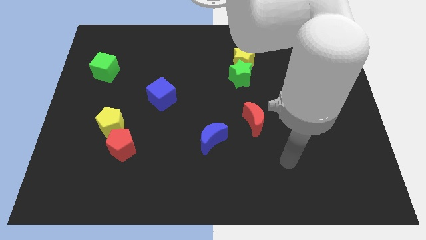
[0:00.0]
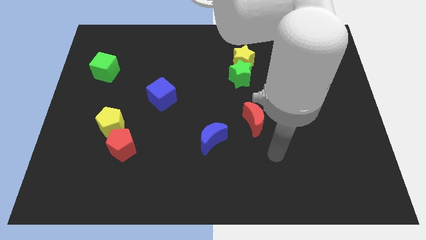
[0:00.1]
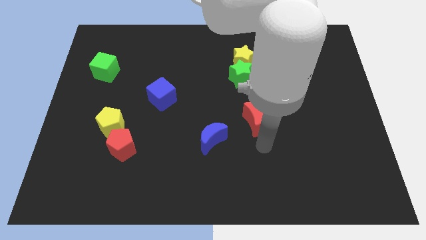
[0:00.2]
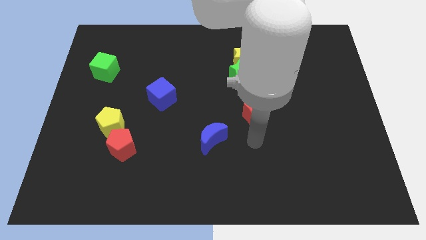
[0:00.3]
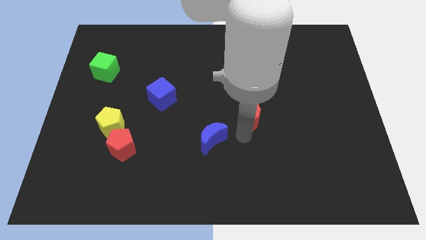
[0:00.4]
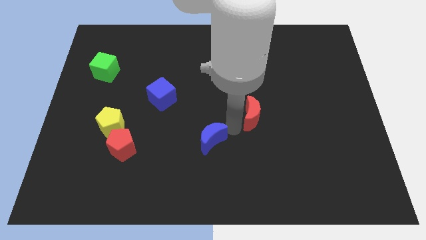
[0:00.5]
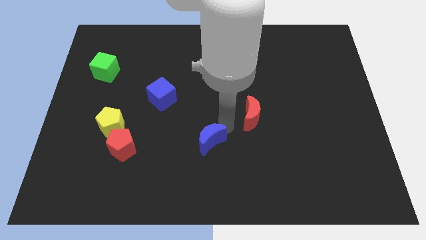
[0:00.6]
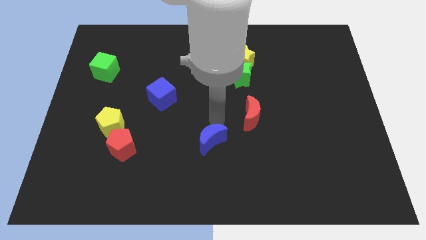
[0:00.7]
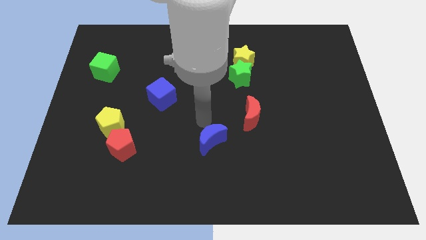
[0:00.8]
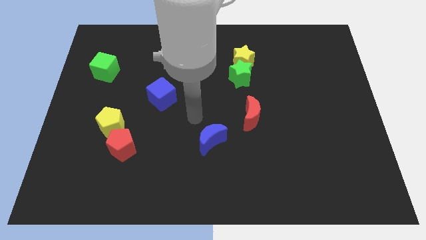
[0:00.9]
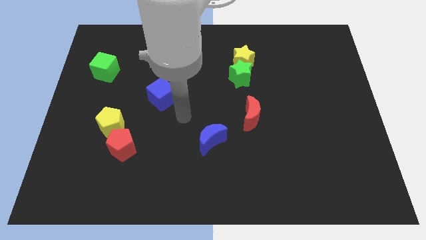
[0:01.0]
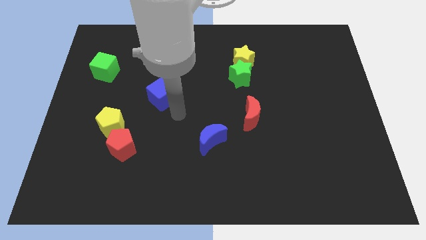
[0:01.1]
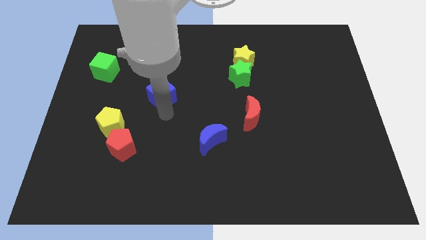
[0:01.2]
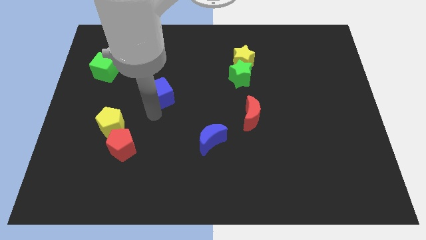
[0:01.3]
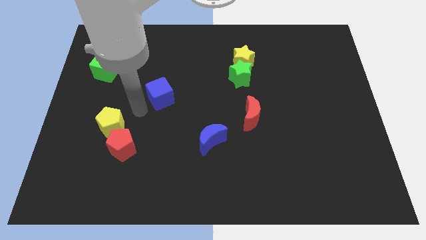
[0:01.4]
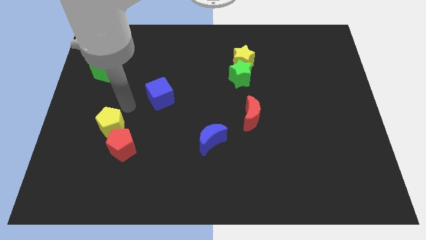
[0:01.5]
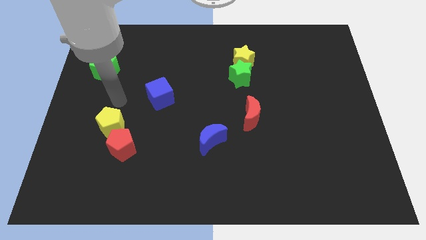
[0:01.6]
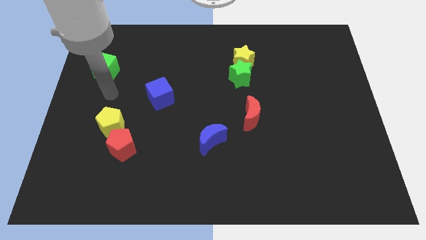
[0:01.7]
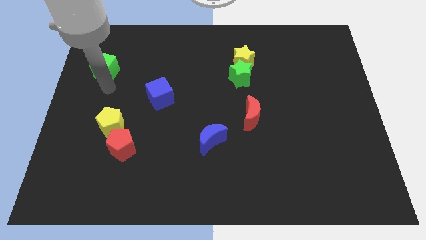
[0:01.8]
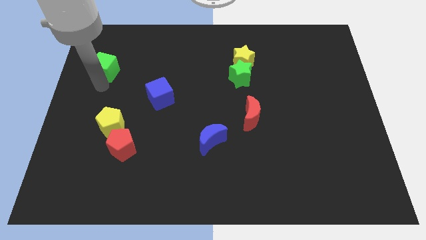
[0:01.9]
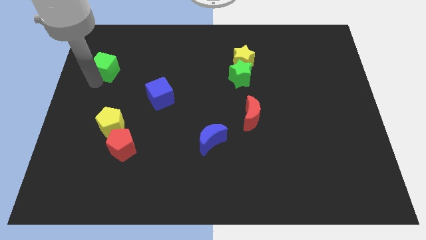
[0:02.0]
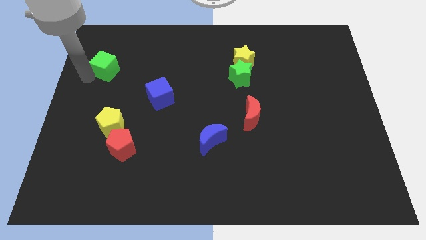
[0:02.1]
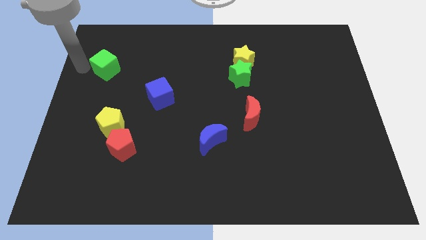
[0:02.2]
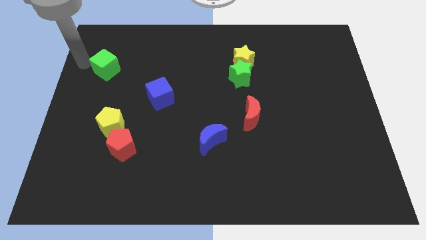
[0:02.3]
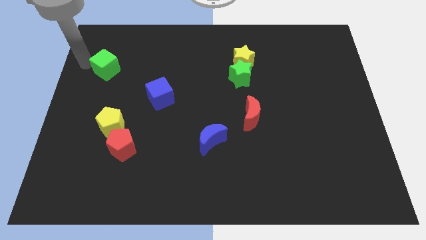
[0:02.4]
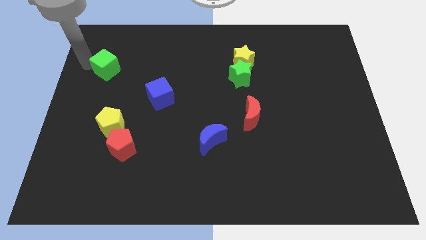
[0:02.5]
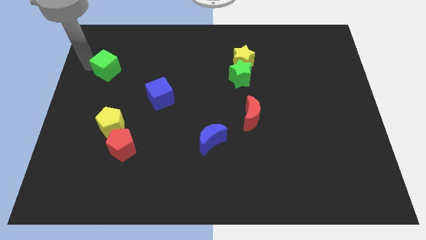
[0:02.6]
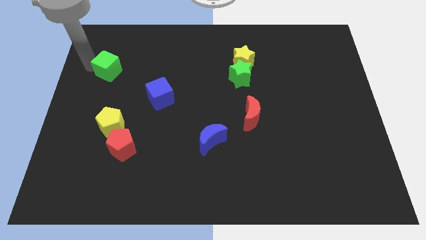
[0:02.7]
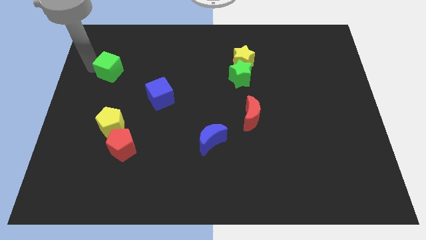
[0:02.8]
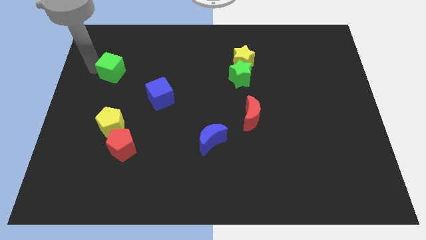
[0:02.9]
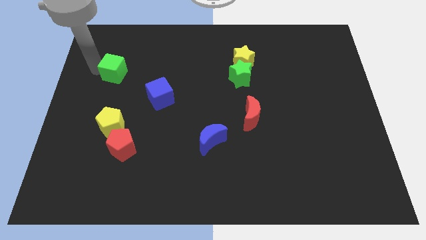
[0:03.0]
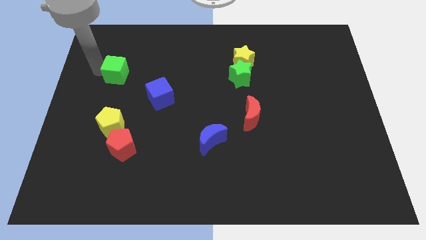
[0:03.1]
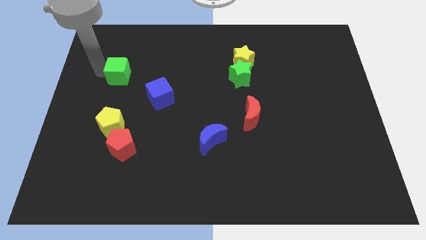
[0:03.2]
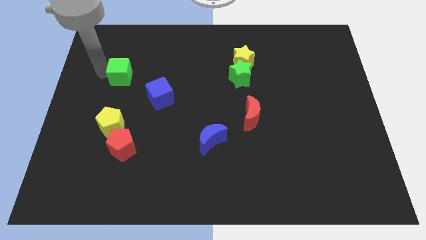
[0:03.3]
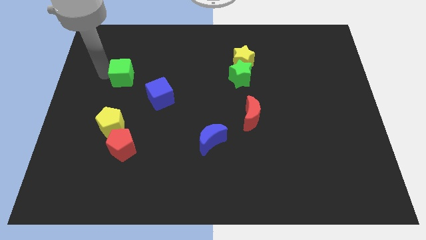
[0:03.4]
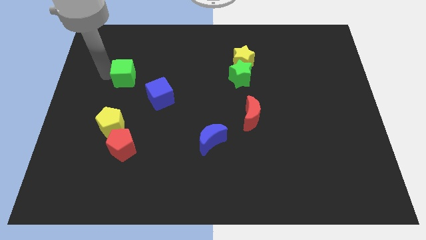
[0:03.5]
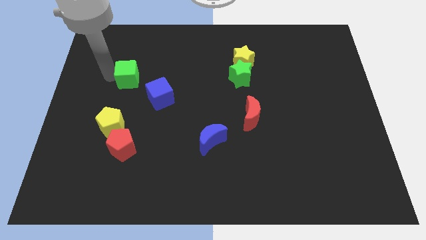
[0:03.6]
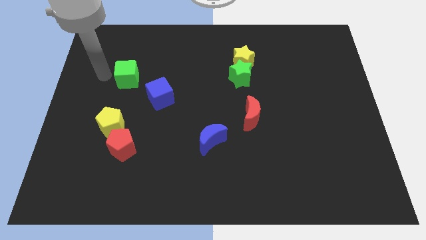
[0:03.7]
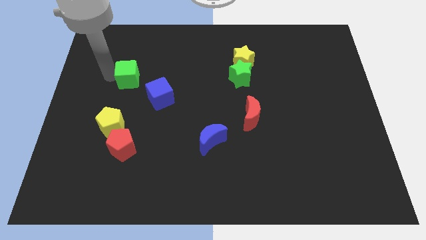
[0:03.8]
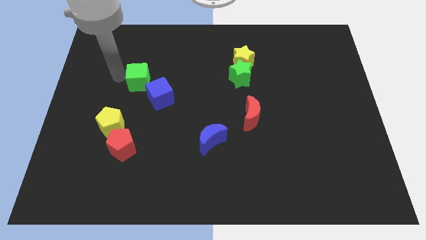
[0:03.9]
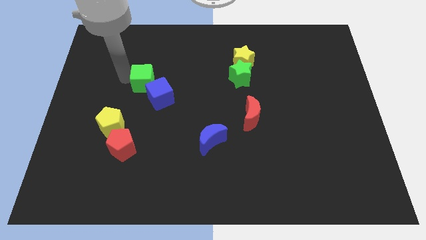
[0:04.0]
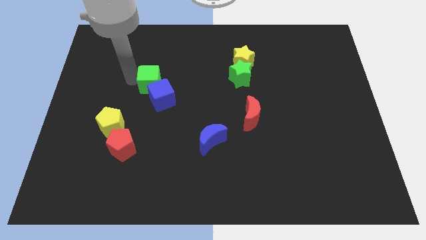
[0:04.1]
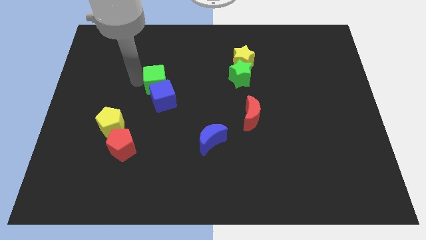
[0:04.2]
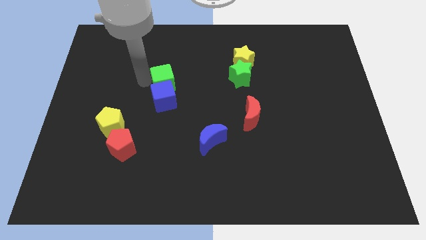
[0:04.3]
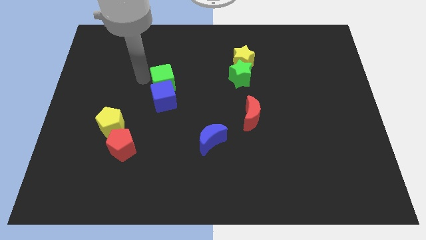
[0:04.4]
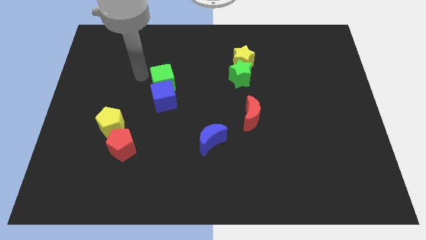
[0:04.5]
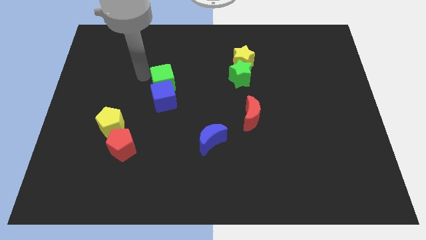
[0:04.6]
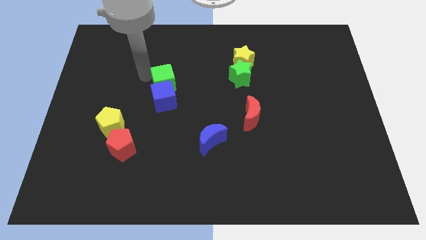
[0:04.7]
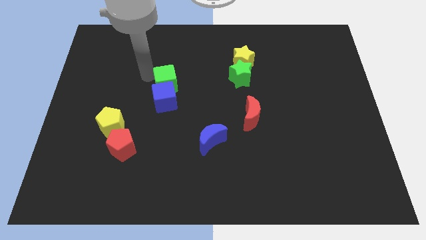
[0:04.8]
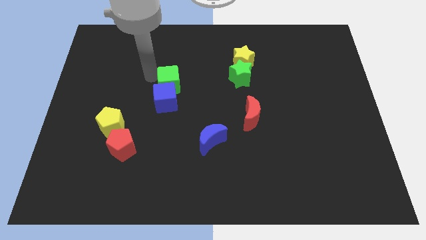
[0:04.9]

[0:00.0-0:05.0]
slide the green cube to the center

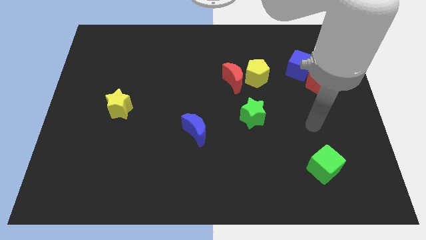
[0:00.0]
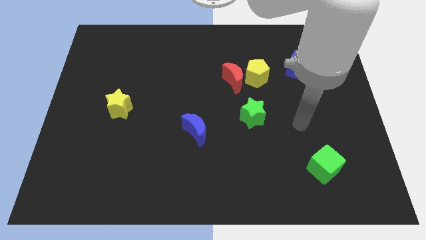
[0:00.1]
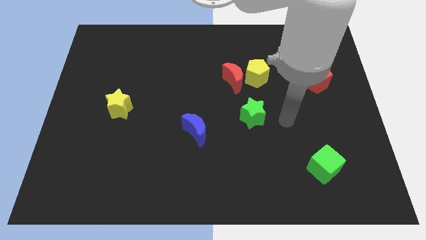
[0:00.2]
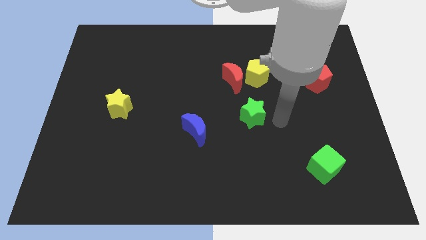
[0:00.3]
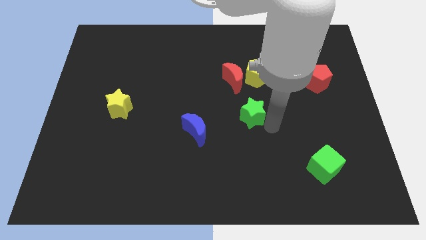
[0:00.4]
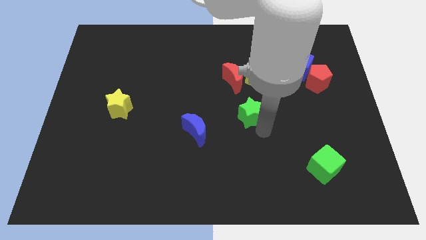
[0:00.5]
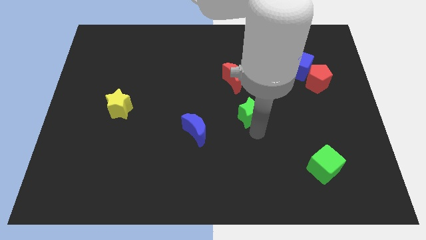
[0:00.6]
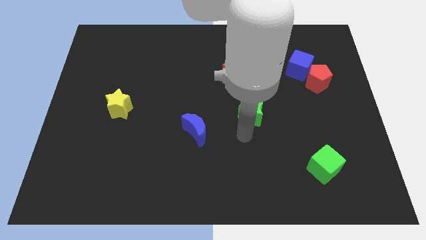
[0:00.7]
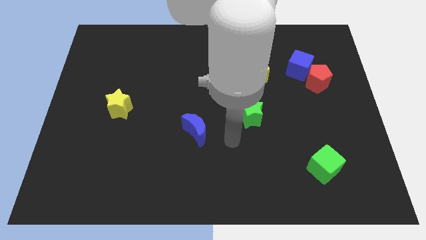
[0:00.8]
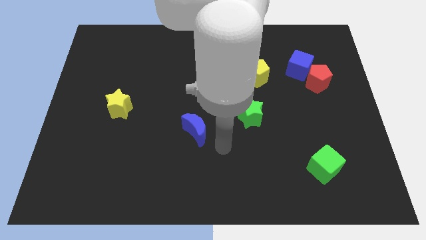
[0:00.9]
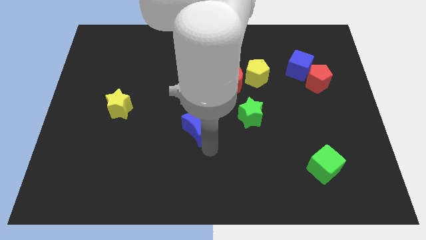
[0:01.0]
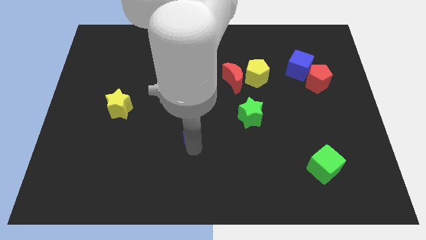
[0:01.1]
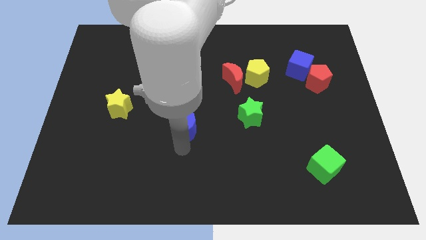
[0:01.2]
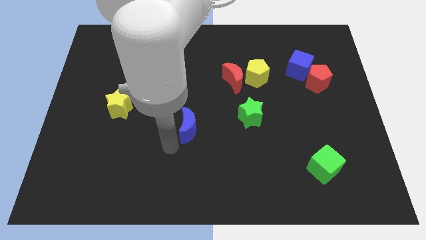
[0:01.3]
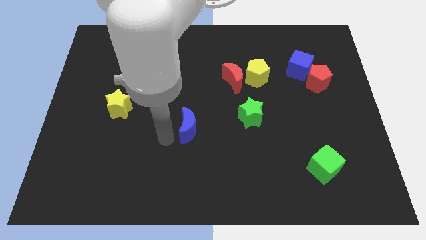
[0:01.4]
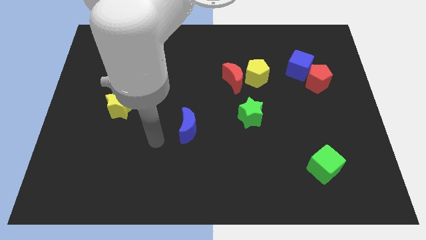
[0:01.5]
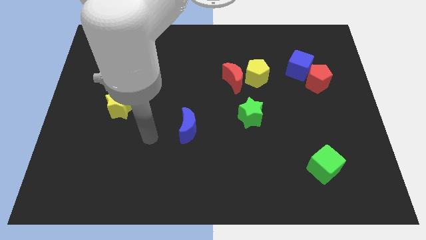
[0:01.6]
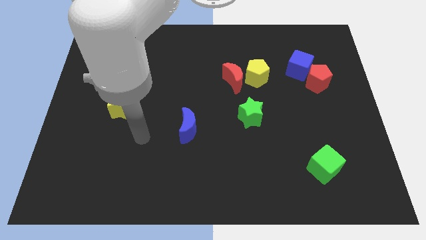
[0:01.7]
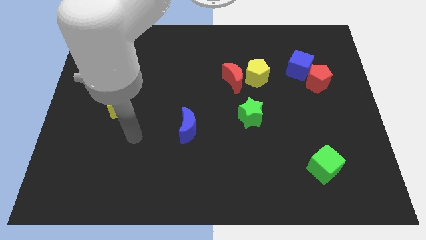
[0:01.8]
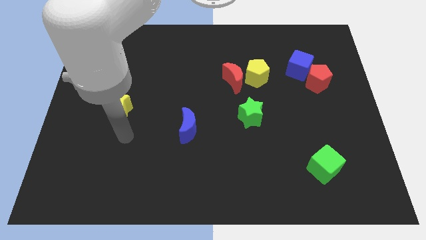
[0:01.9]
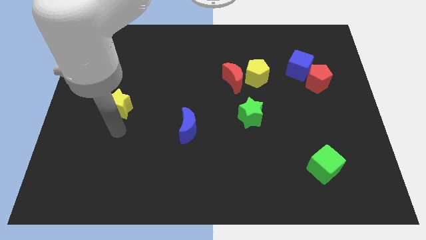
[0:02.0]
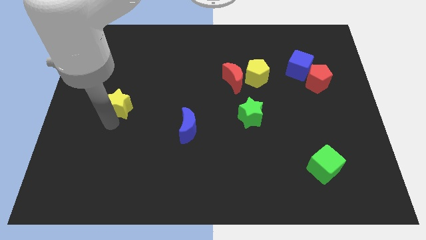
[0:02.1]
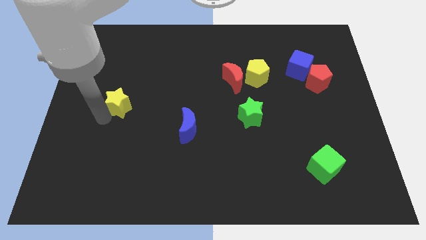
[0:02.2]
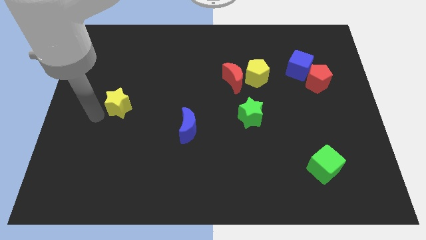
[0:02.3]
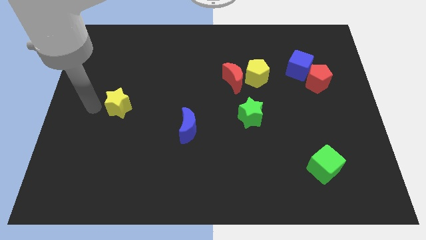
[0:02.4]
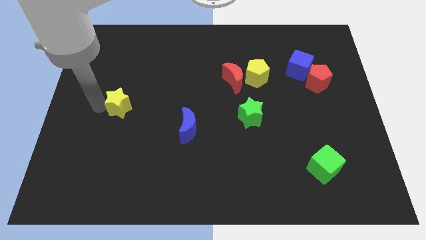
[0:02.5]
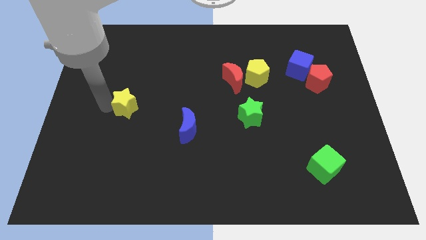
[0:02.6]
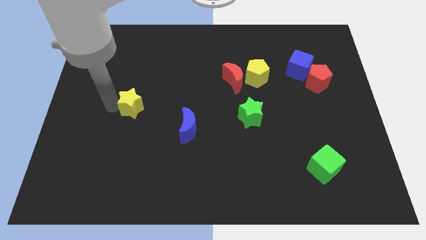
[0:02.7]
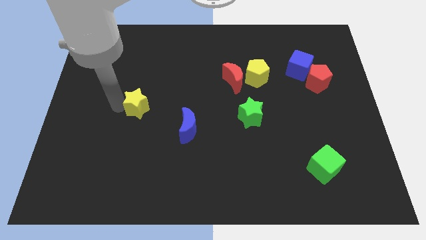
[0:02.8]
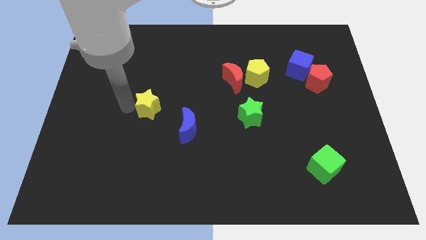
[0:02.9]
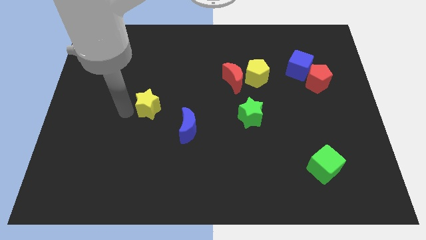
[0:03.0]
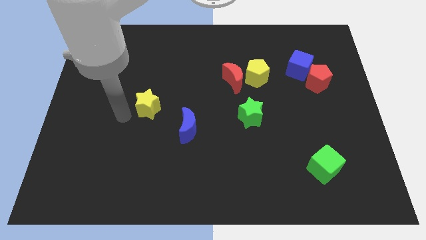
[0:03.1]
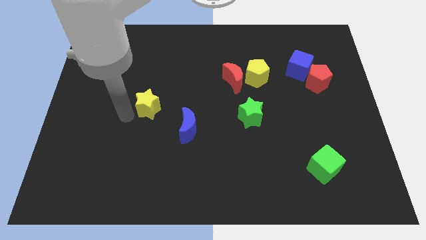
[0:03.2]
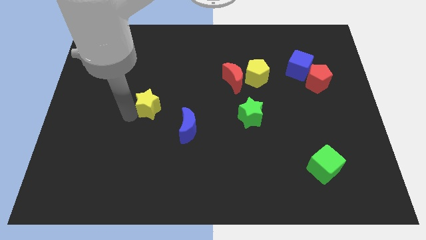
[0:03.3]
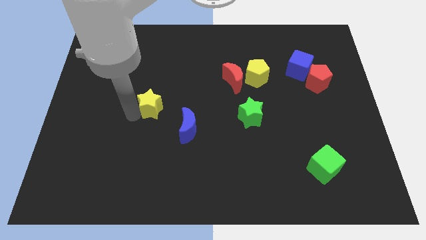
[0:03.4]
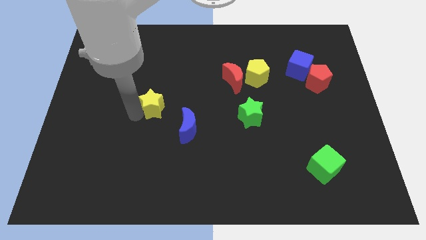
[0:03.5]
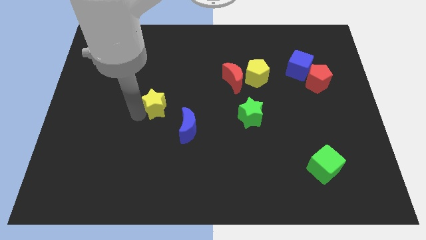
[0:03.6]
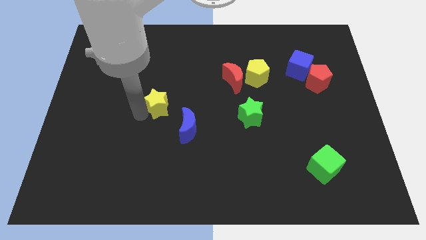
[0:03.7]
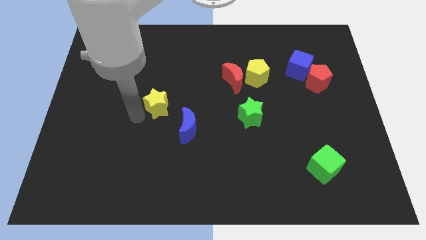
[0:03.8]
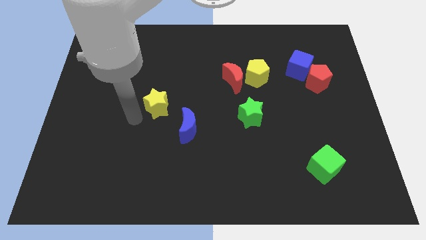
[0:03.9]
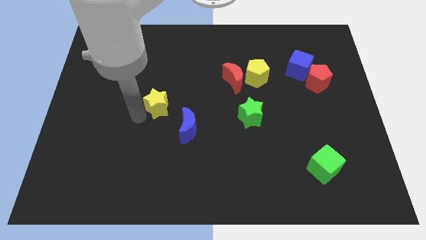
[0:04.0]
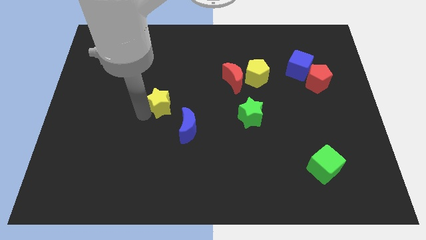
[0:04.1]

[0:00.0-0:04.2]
move the yellow star to the middle of the board
